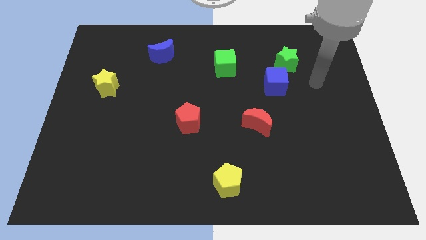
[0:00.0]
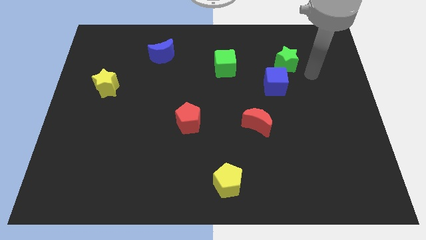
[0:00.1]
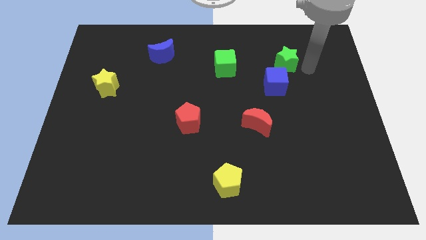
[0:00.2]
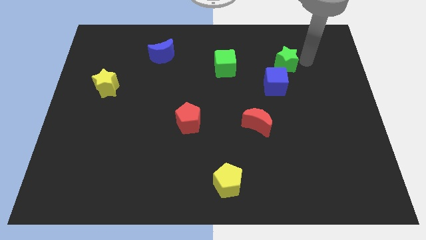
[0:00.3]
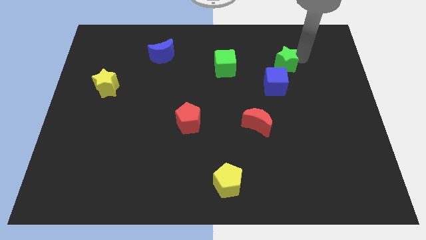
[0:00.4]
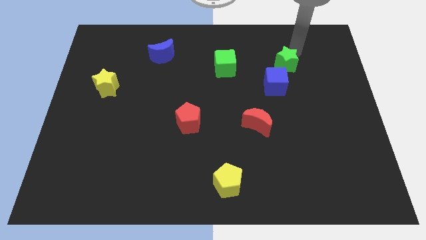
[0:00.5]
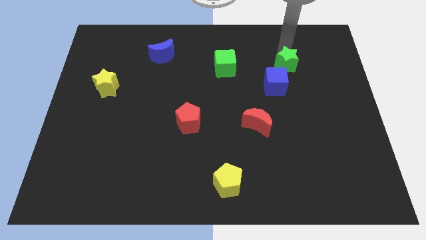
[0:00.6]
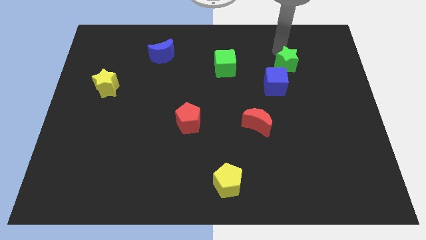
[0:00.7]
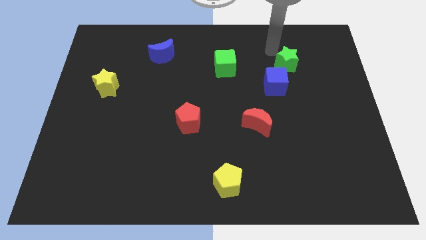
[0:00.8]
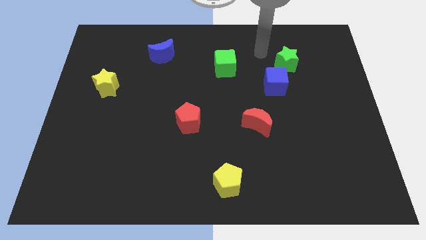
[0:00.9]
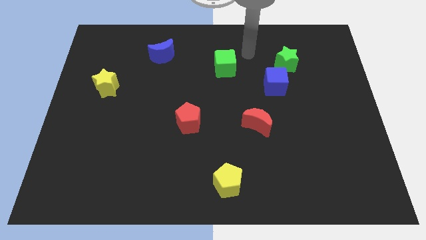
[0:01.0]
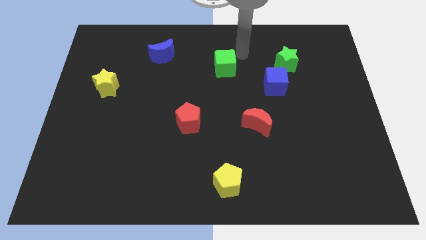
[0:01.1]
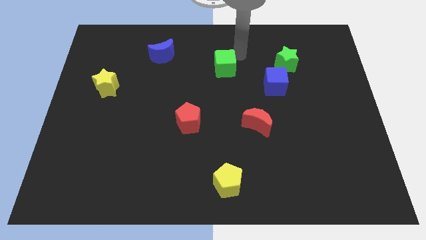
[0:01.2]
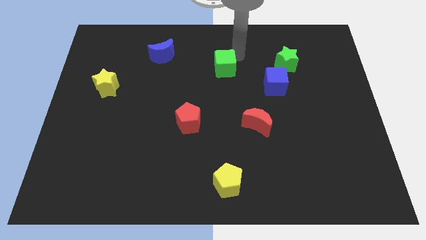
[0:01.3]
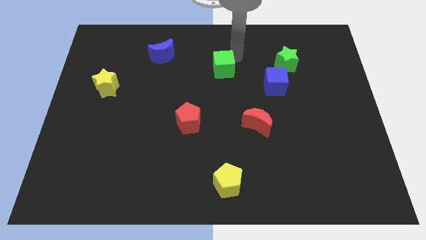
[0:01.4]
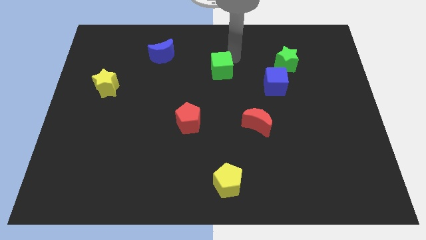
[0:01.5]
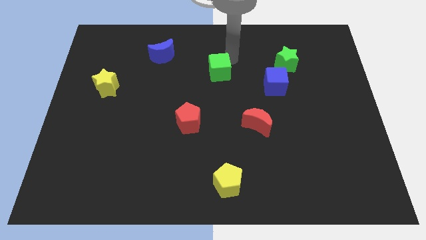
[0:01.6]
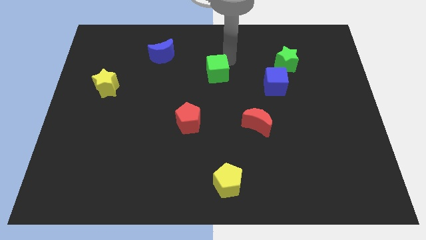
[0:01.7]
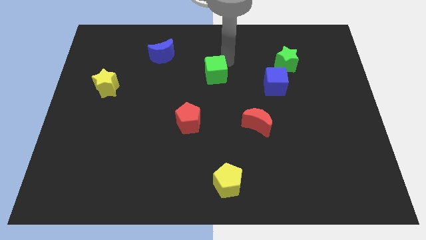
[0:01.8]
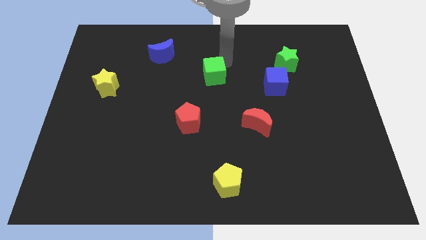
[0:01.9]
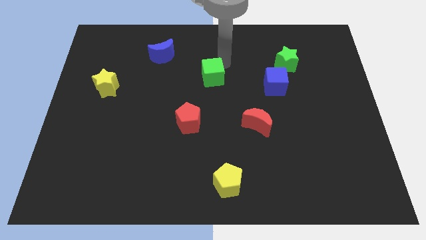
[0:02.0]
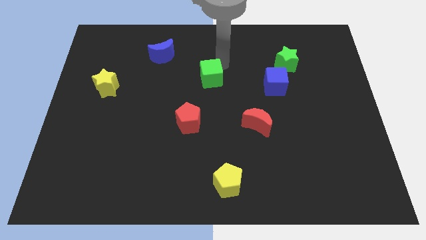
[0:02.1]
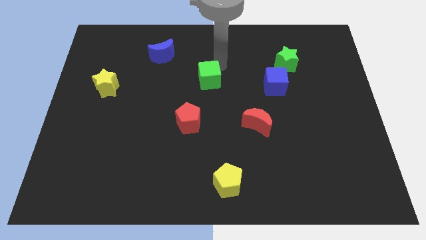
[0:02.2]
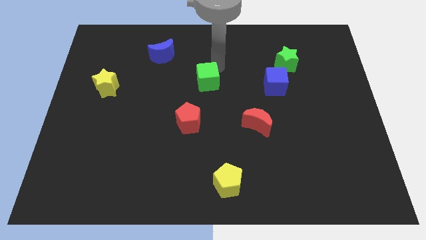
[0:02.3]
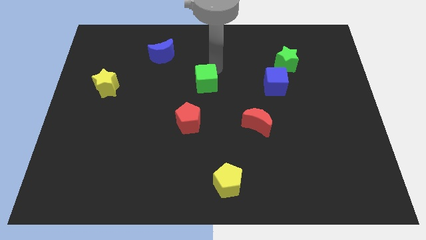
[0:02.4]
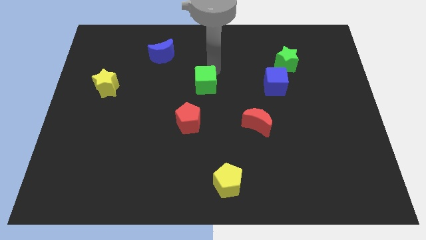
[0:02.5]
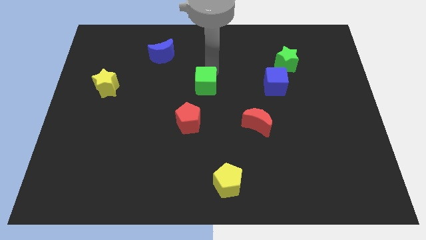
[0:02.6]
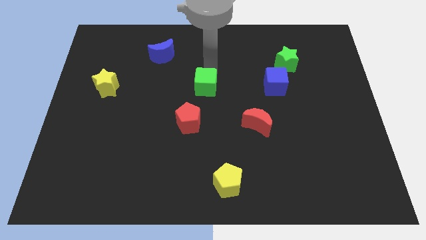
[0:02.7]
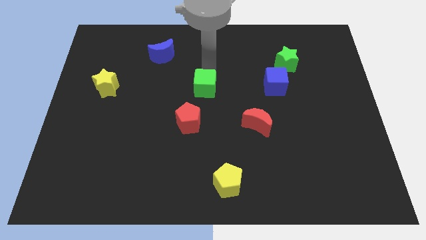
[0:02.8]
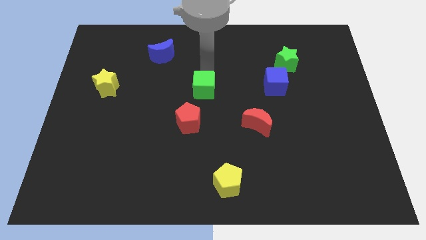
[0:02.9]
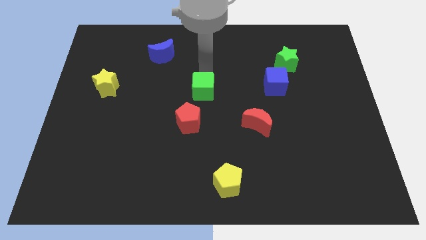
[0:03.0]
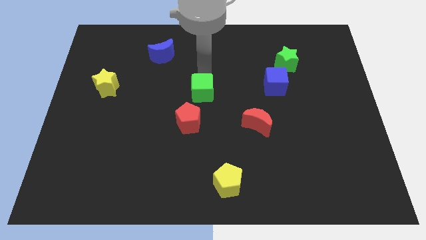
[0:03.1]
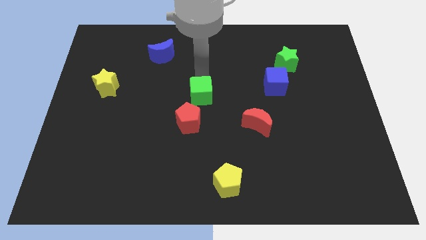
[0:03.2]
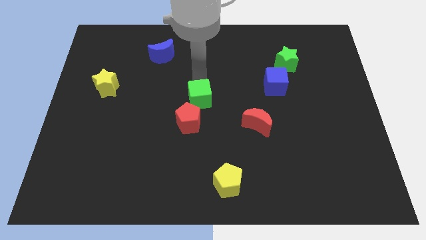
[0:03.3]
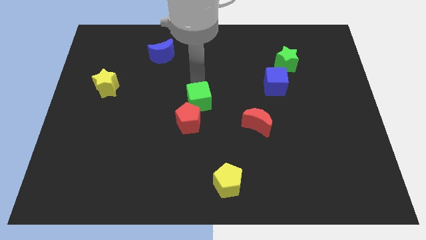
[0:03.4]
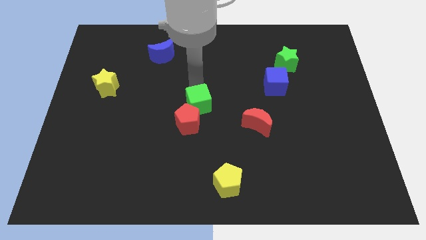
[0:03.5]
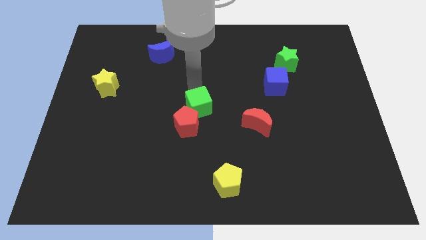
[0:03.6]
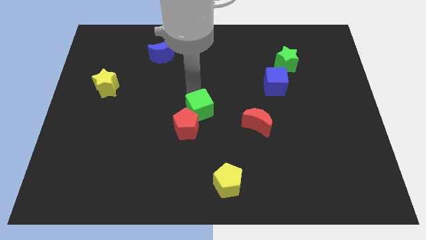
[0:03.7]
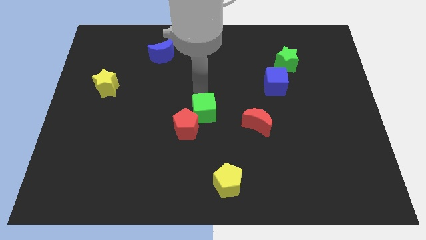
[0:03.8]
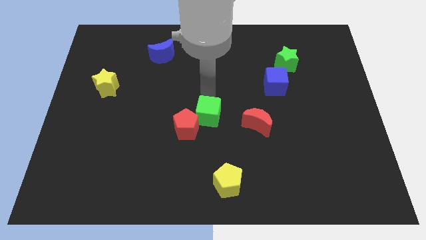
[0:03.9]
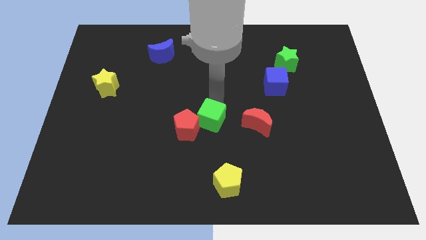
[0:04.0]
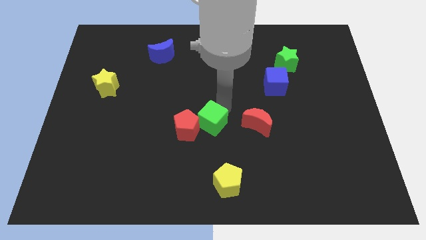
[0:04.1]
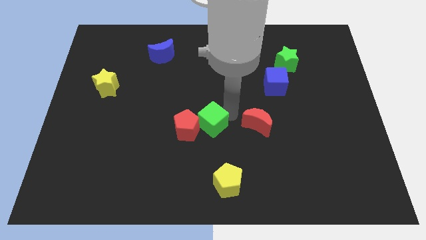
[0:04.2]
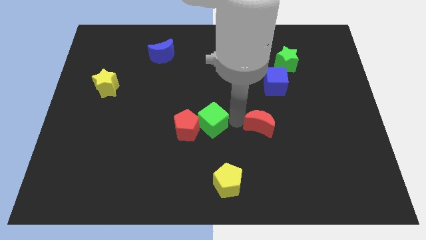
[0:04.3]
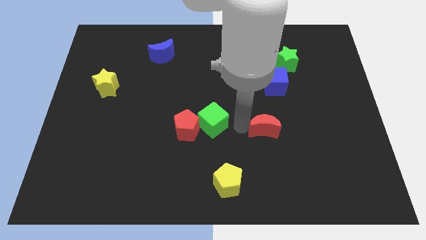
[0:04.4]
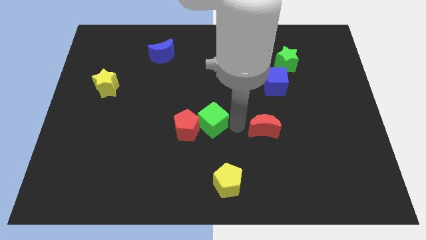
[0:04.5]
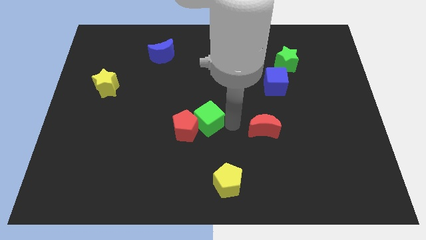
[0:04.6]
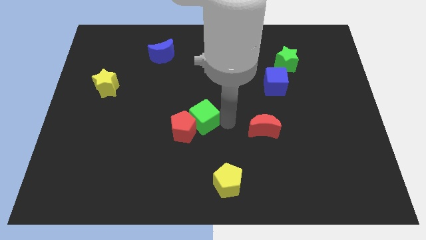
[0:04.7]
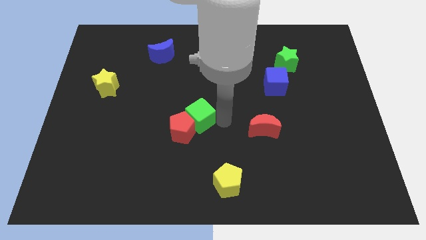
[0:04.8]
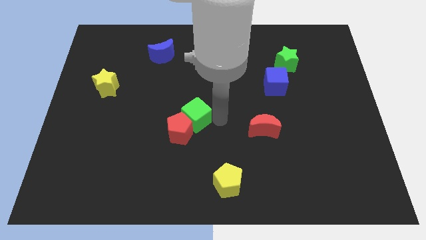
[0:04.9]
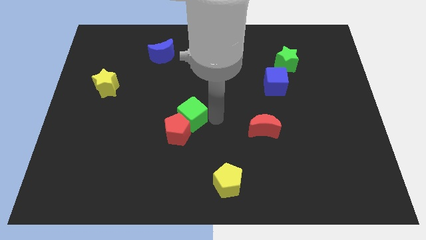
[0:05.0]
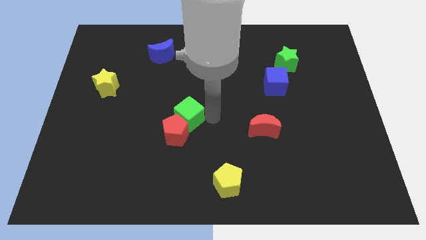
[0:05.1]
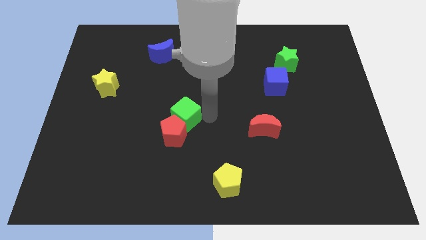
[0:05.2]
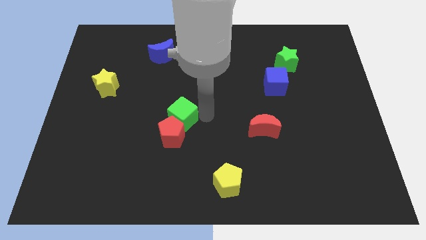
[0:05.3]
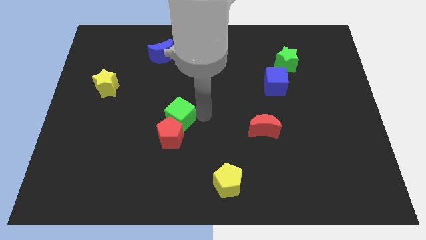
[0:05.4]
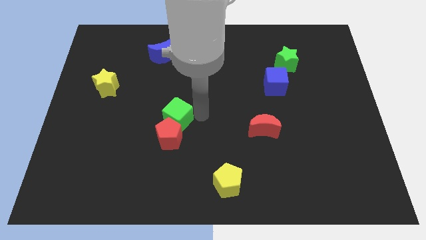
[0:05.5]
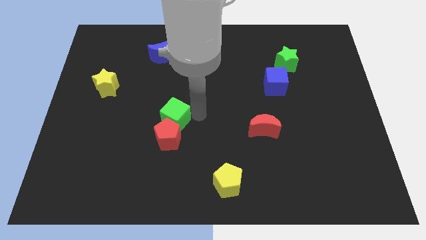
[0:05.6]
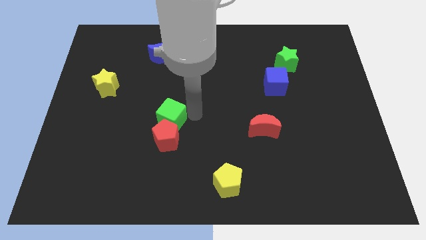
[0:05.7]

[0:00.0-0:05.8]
slide the green cube down and left

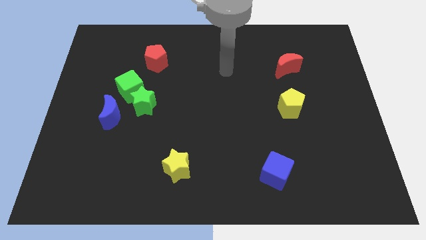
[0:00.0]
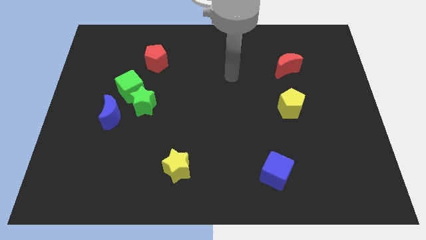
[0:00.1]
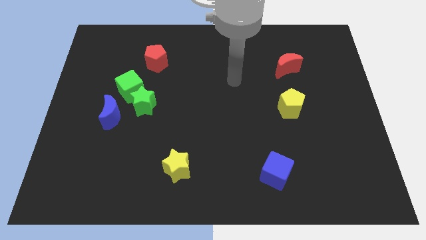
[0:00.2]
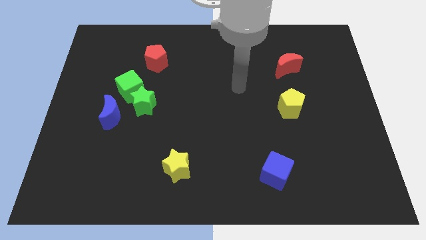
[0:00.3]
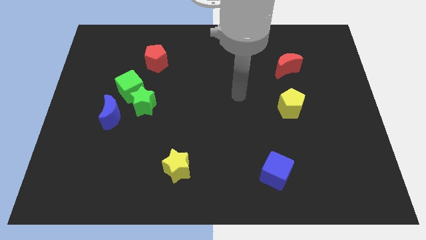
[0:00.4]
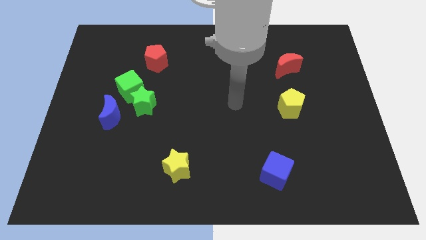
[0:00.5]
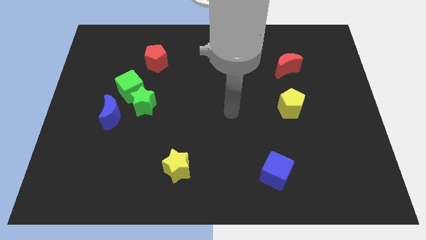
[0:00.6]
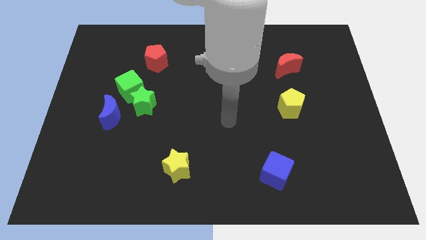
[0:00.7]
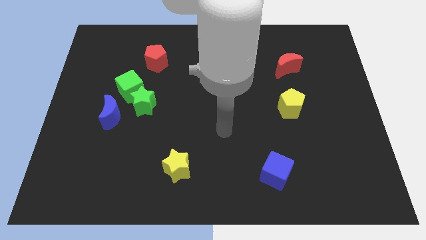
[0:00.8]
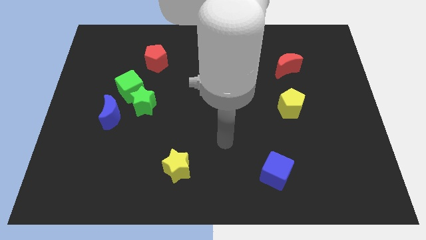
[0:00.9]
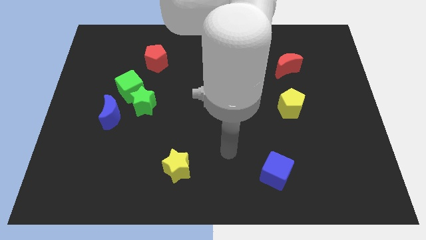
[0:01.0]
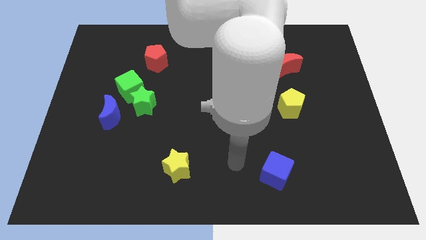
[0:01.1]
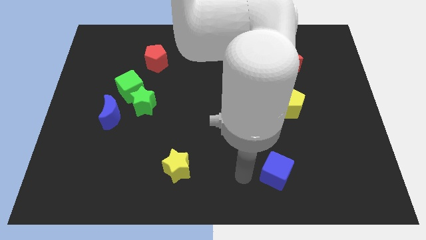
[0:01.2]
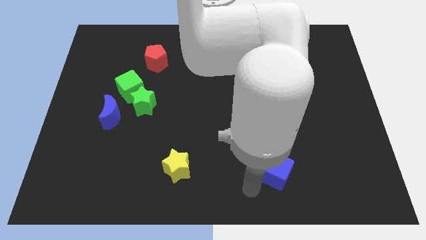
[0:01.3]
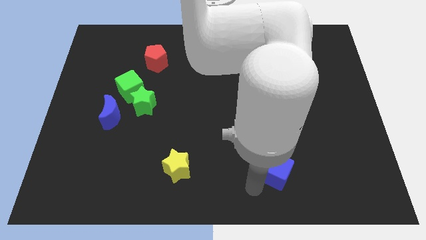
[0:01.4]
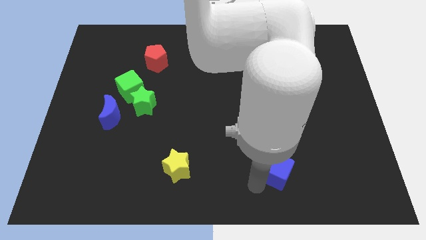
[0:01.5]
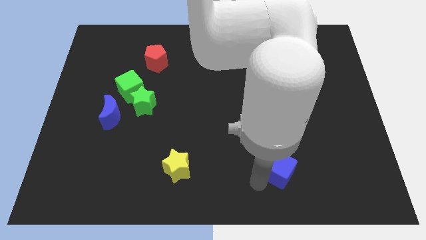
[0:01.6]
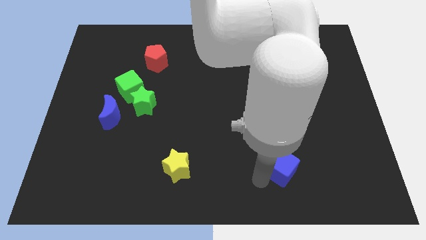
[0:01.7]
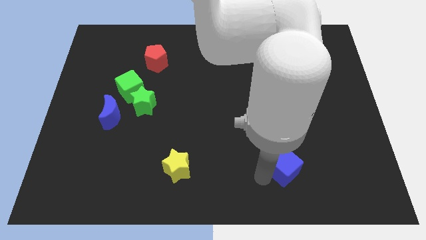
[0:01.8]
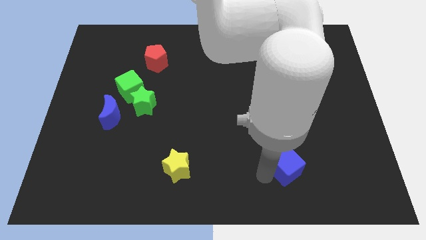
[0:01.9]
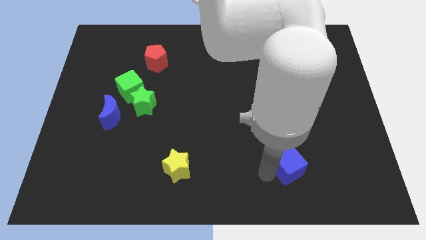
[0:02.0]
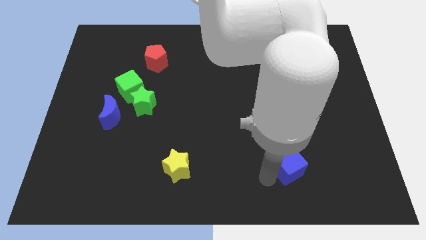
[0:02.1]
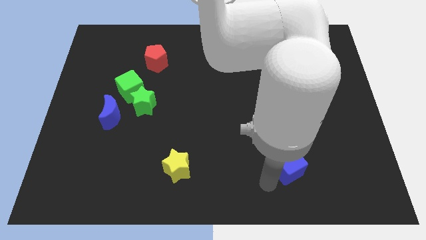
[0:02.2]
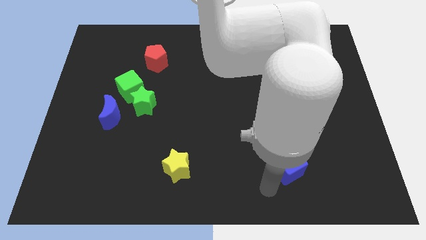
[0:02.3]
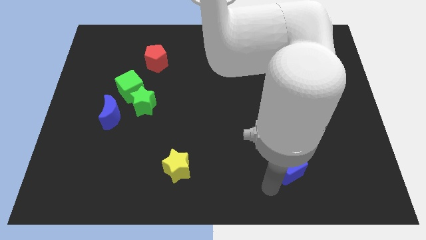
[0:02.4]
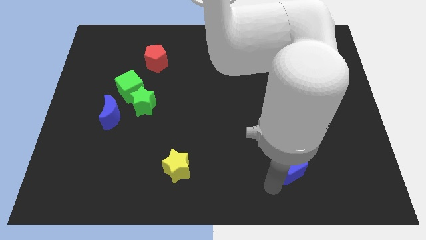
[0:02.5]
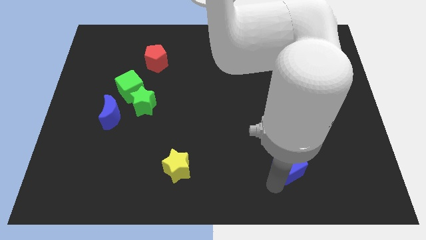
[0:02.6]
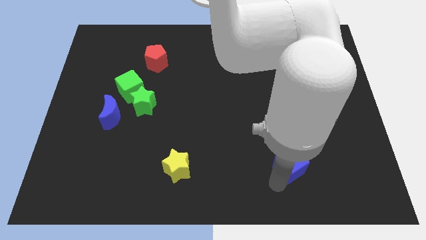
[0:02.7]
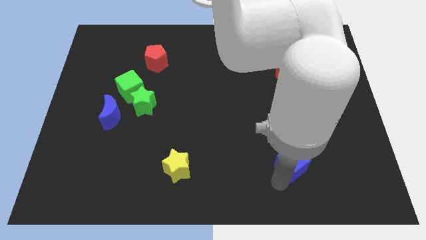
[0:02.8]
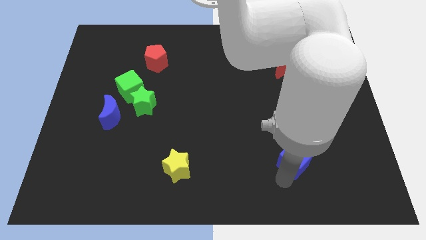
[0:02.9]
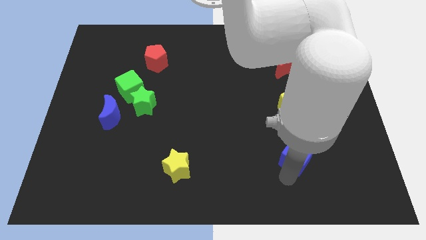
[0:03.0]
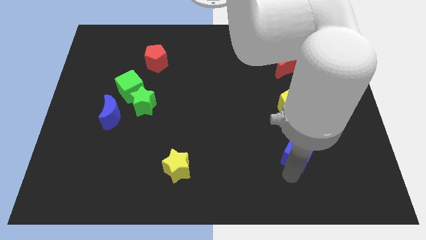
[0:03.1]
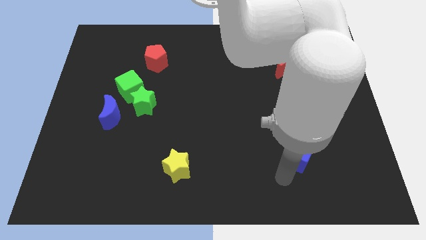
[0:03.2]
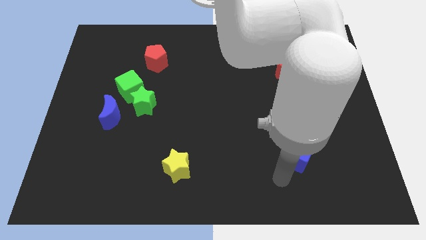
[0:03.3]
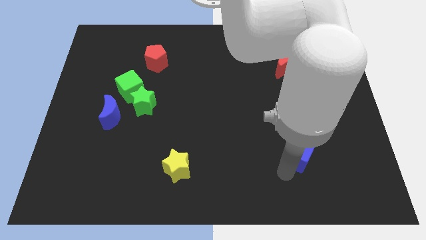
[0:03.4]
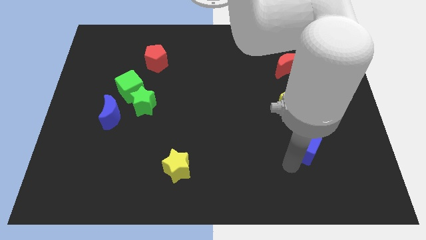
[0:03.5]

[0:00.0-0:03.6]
slide the blue cube upwards and right a little
